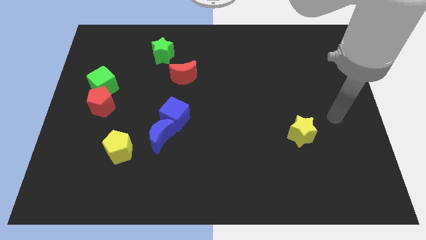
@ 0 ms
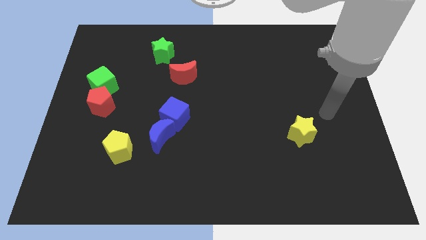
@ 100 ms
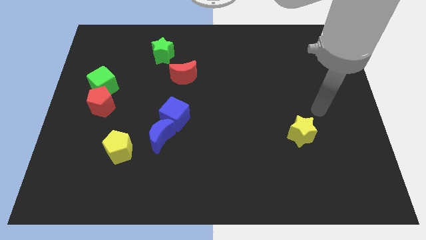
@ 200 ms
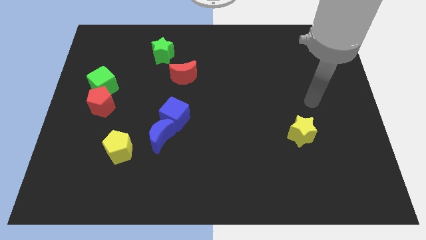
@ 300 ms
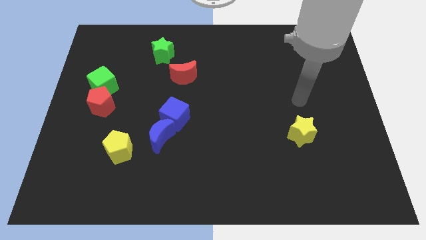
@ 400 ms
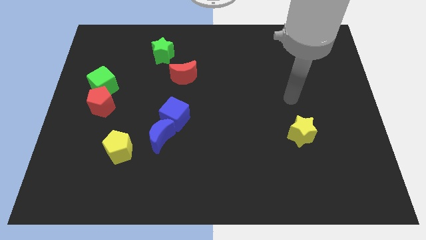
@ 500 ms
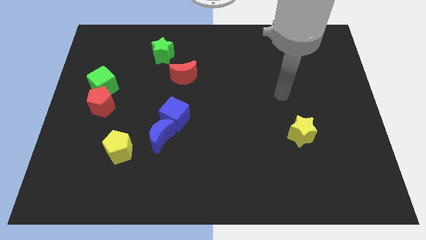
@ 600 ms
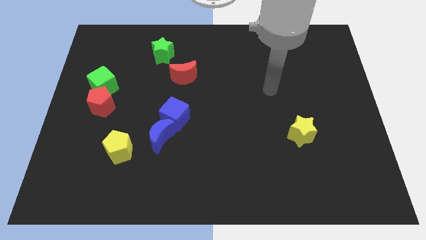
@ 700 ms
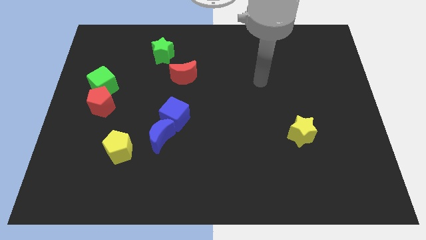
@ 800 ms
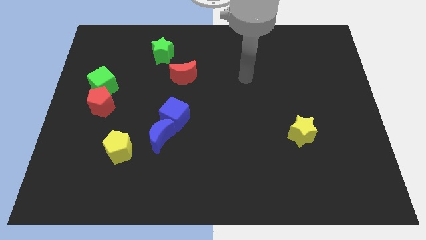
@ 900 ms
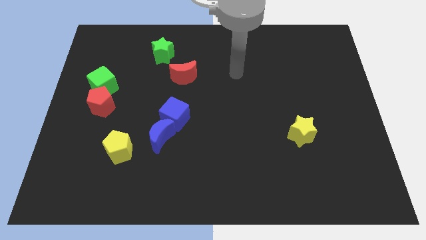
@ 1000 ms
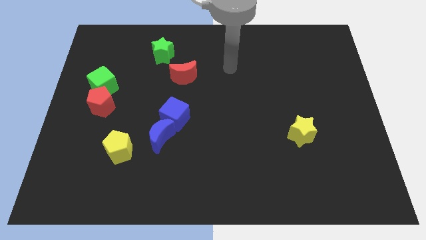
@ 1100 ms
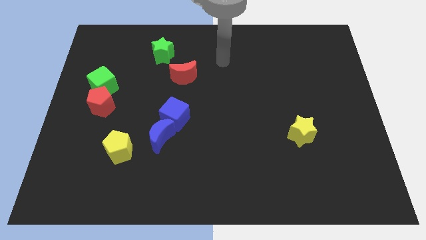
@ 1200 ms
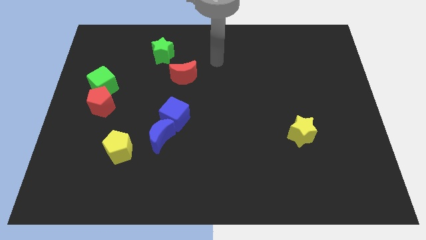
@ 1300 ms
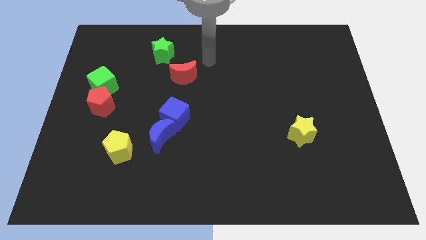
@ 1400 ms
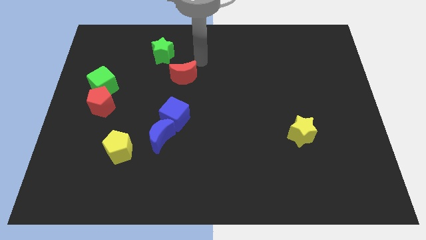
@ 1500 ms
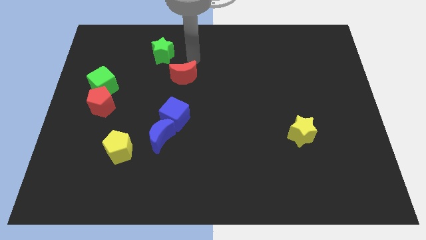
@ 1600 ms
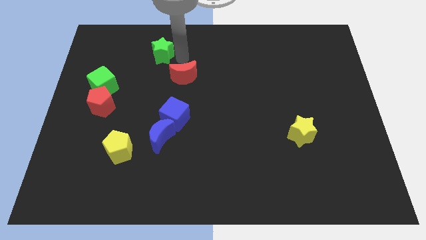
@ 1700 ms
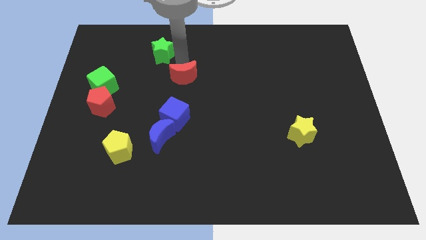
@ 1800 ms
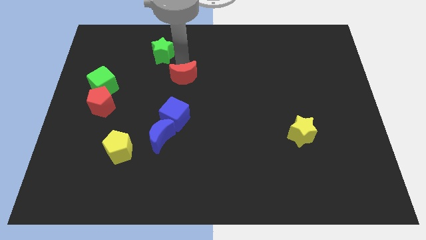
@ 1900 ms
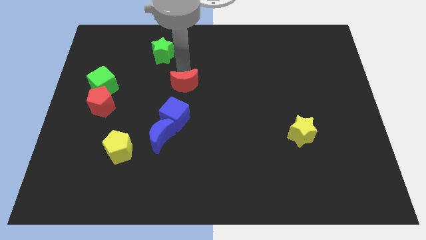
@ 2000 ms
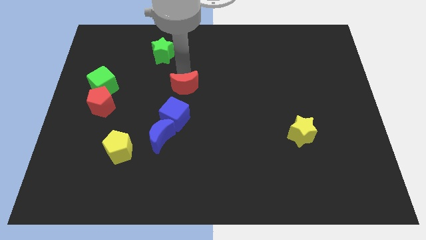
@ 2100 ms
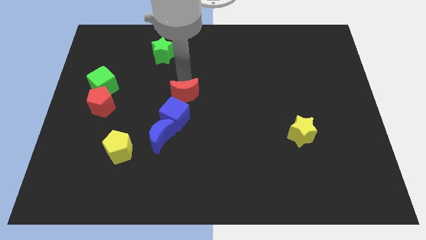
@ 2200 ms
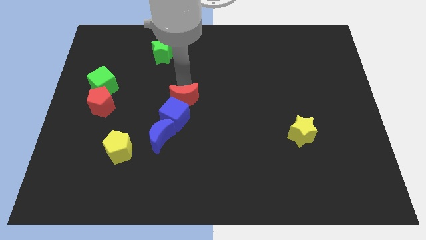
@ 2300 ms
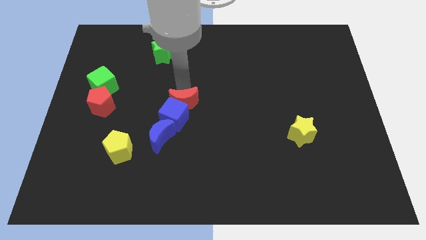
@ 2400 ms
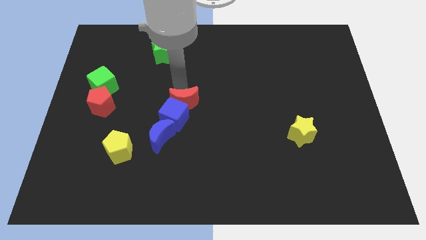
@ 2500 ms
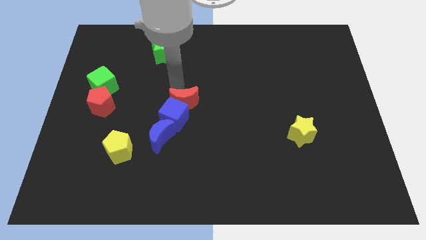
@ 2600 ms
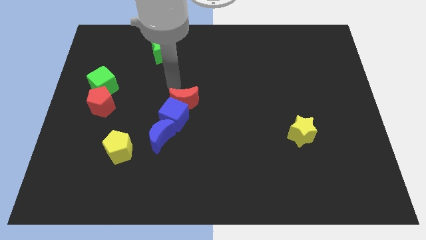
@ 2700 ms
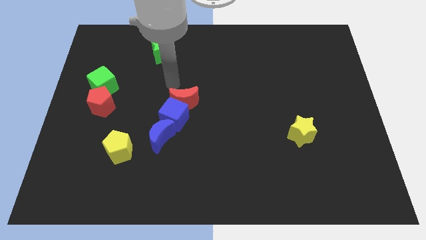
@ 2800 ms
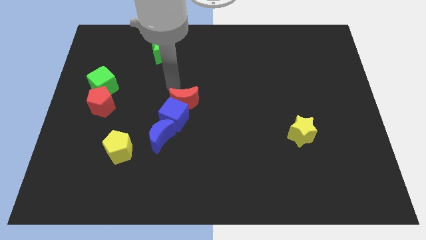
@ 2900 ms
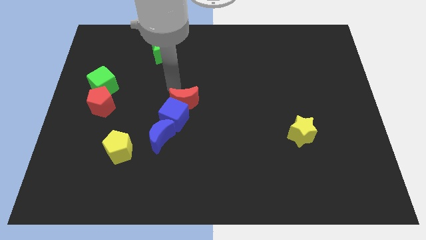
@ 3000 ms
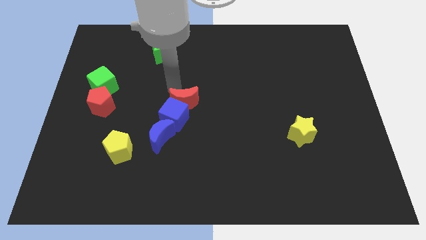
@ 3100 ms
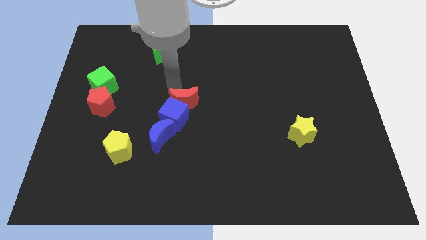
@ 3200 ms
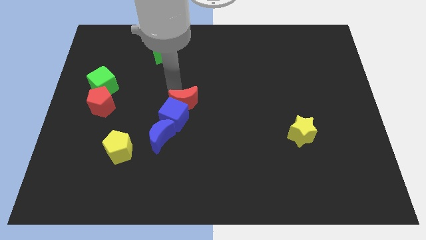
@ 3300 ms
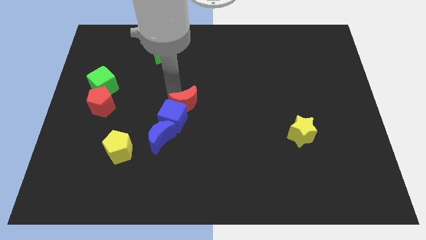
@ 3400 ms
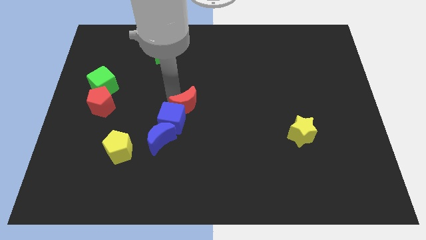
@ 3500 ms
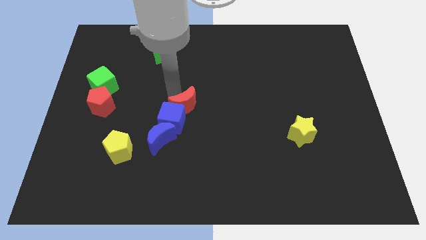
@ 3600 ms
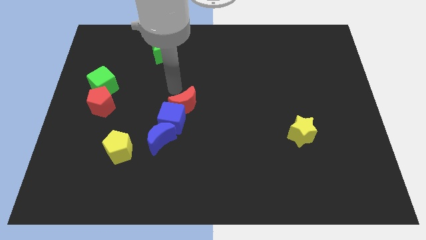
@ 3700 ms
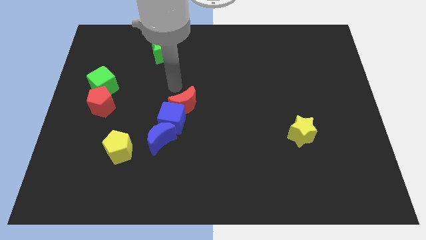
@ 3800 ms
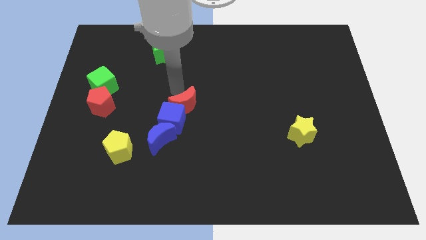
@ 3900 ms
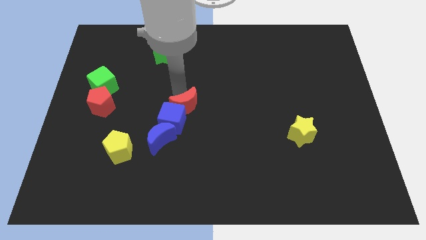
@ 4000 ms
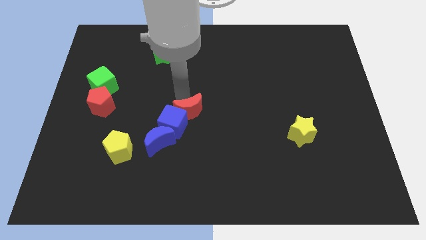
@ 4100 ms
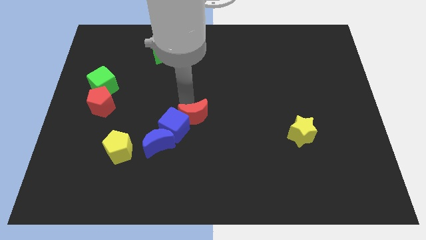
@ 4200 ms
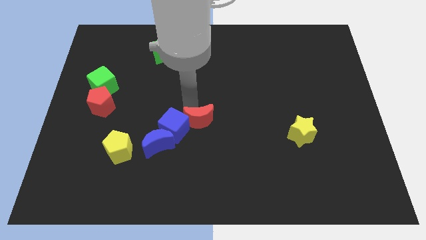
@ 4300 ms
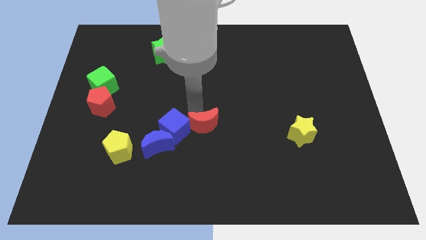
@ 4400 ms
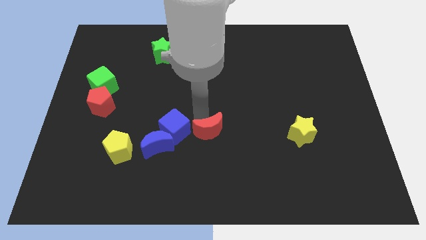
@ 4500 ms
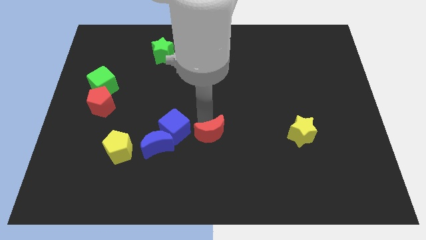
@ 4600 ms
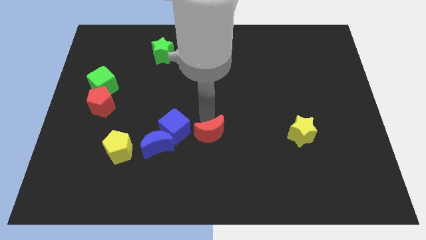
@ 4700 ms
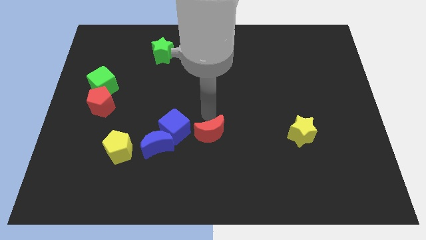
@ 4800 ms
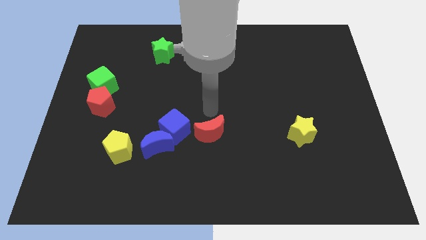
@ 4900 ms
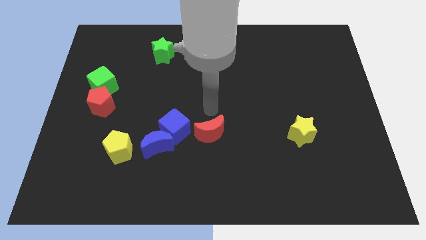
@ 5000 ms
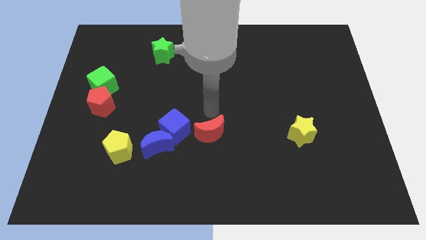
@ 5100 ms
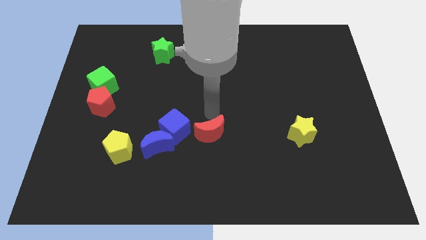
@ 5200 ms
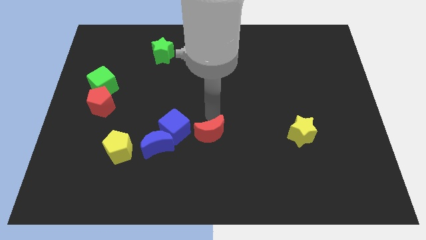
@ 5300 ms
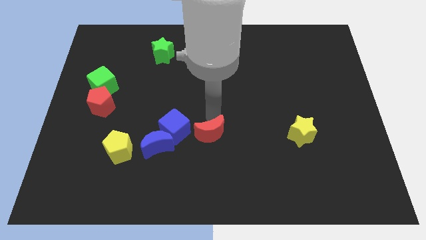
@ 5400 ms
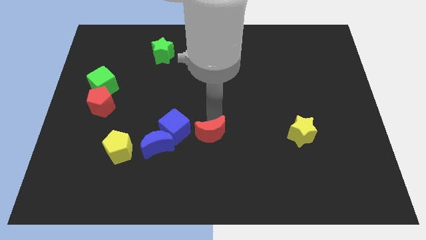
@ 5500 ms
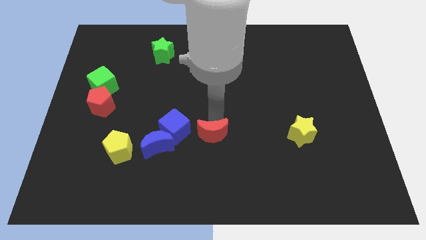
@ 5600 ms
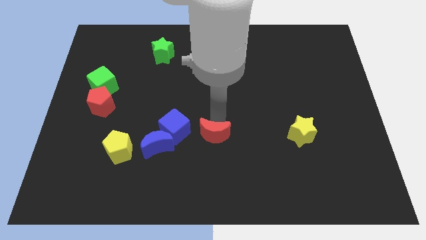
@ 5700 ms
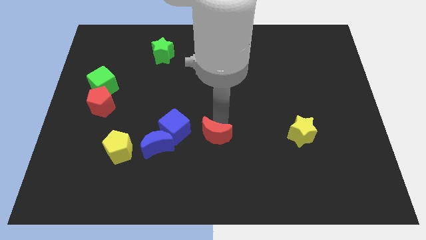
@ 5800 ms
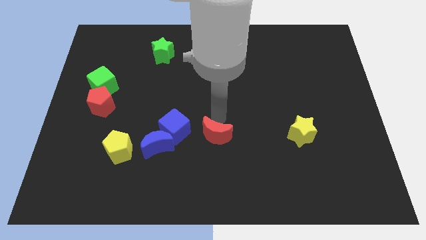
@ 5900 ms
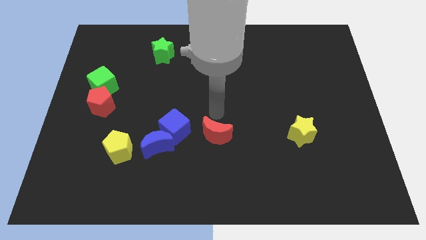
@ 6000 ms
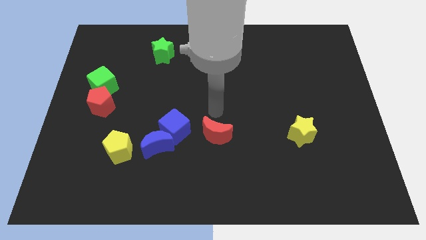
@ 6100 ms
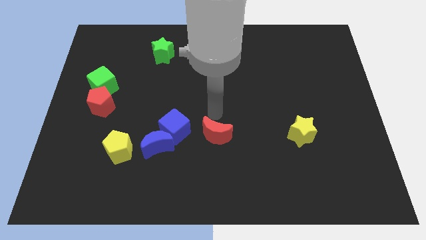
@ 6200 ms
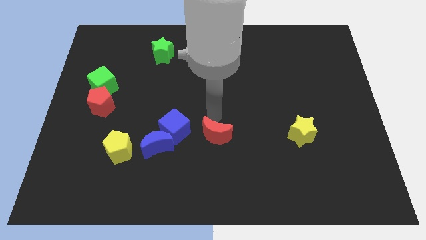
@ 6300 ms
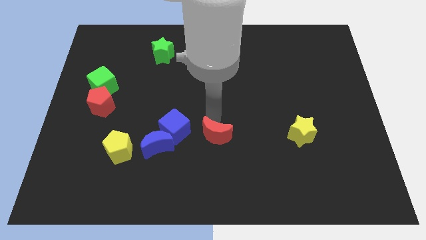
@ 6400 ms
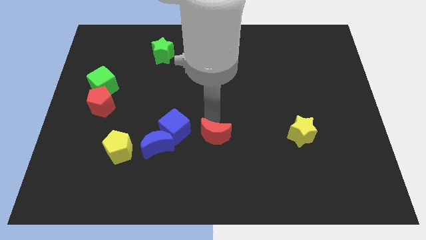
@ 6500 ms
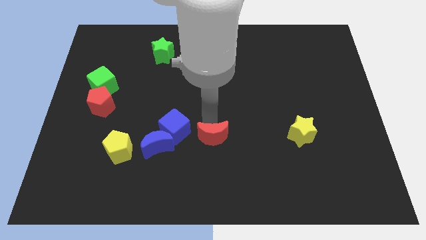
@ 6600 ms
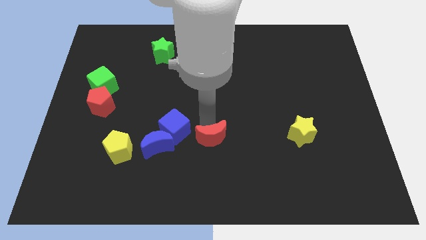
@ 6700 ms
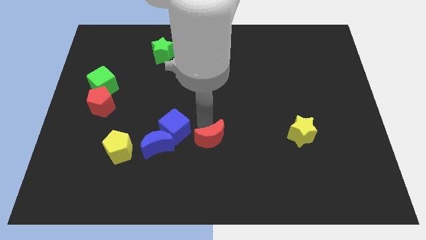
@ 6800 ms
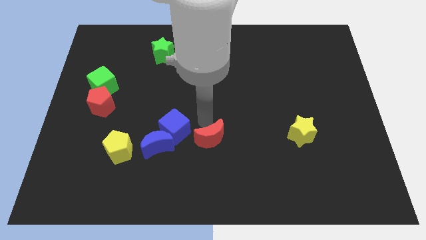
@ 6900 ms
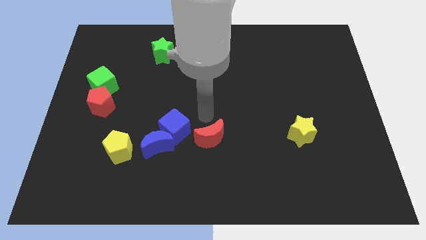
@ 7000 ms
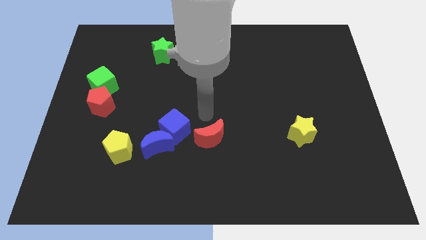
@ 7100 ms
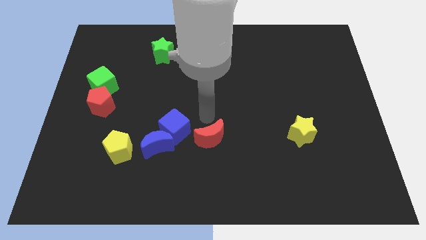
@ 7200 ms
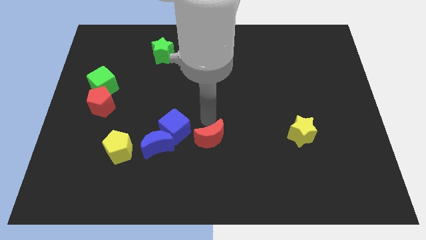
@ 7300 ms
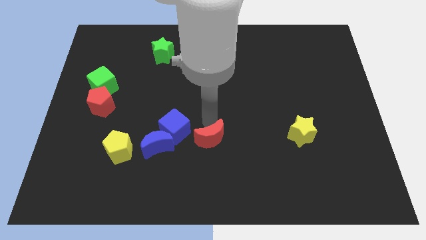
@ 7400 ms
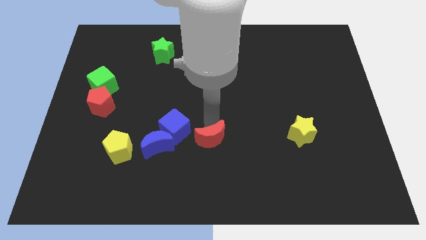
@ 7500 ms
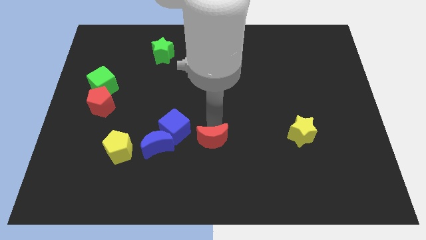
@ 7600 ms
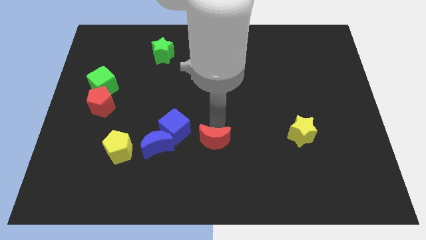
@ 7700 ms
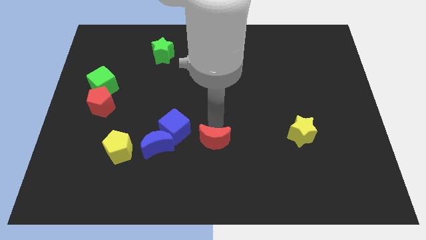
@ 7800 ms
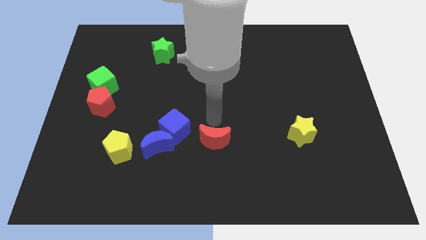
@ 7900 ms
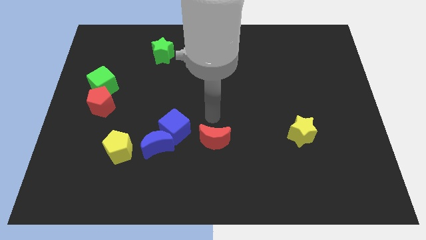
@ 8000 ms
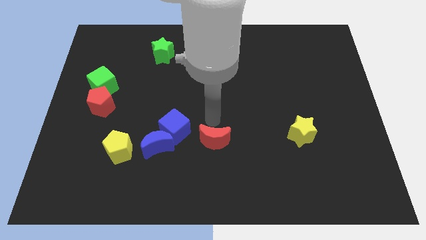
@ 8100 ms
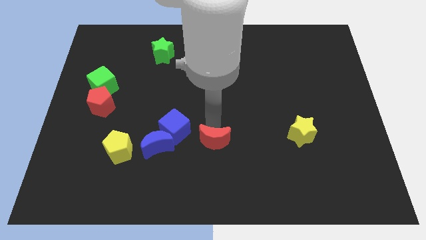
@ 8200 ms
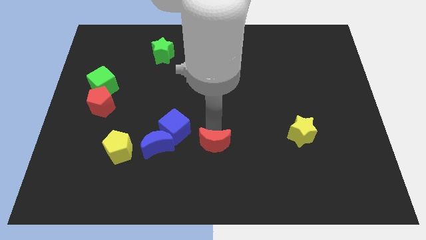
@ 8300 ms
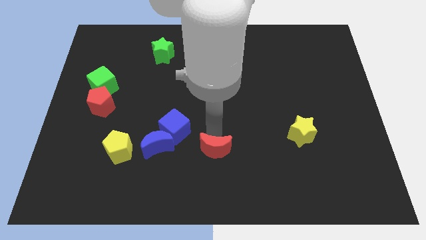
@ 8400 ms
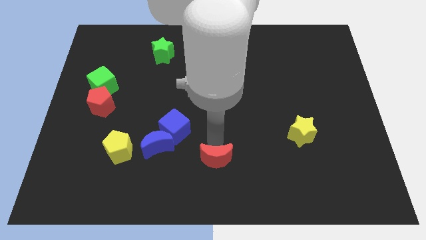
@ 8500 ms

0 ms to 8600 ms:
move the red moon to the bottom
